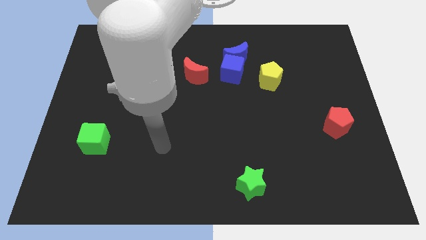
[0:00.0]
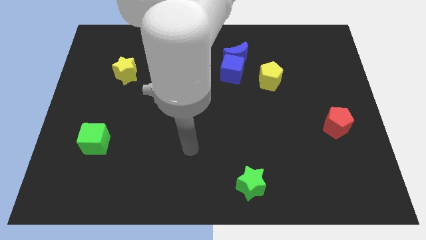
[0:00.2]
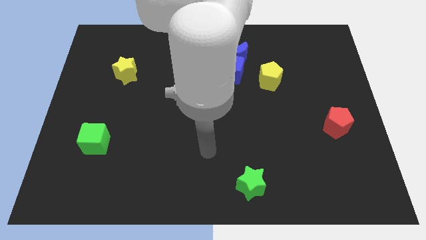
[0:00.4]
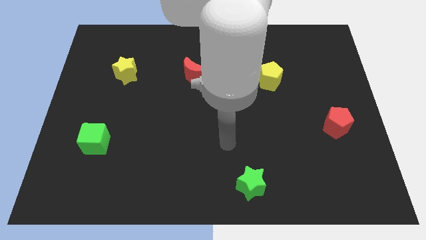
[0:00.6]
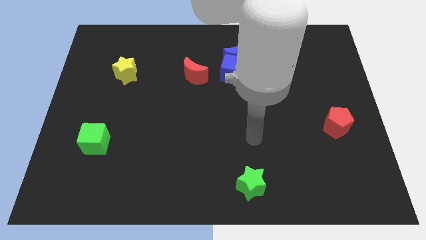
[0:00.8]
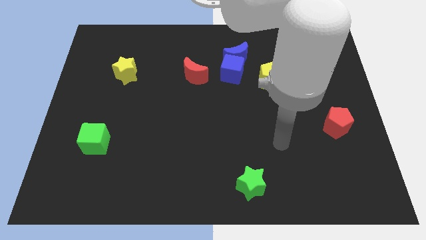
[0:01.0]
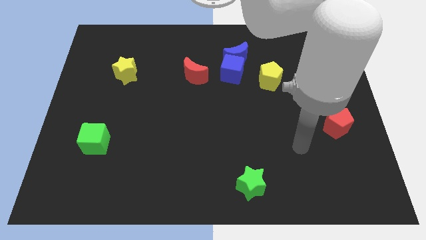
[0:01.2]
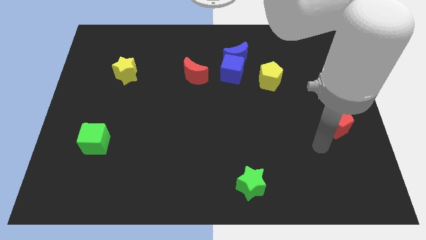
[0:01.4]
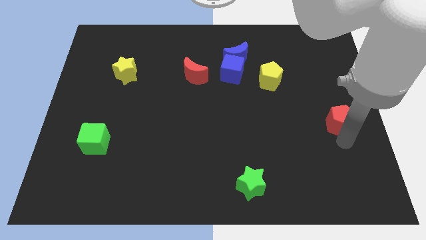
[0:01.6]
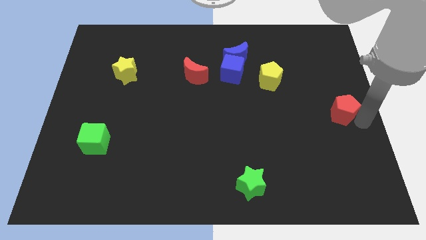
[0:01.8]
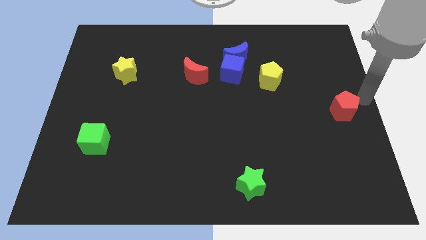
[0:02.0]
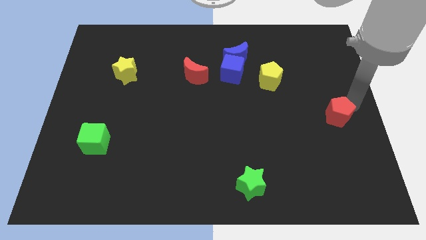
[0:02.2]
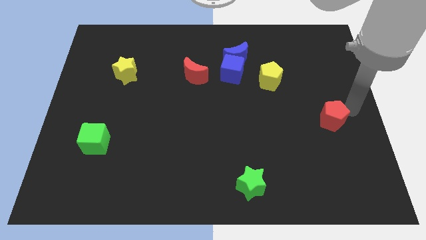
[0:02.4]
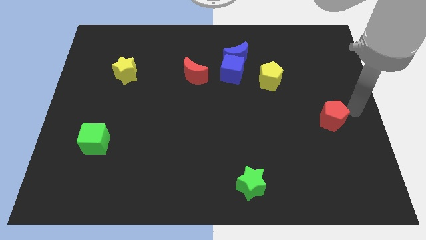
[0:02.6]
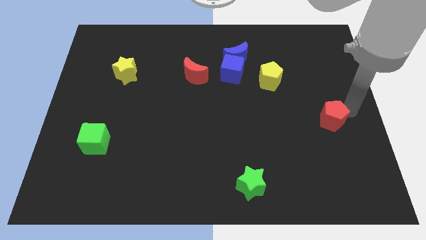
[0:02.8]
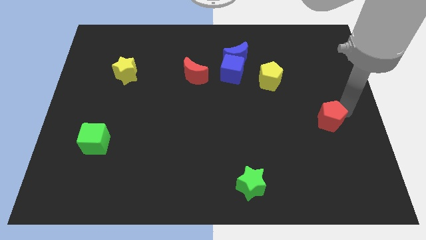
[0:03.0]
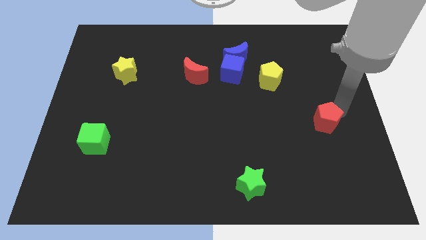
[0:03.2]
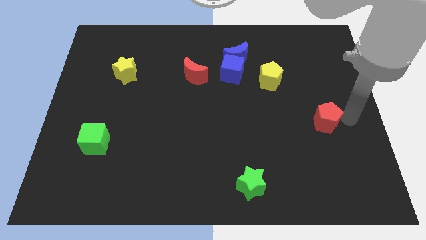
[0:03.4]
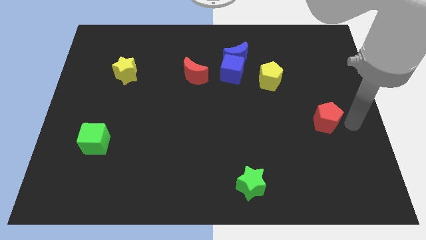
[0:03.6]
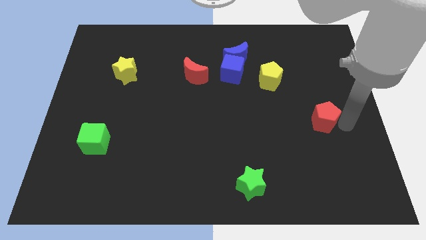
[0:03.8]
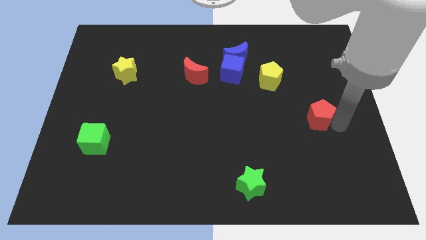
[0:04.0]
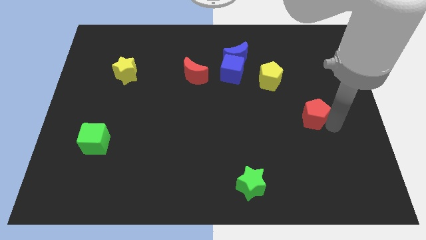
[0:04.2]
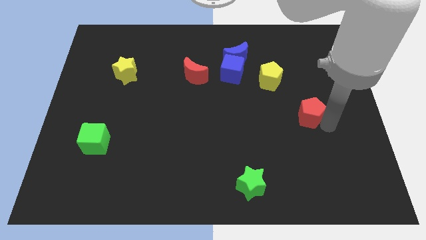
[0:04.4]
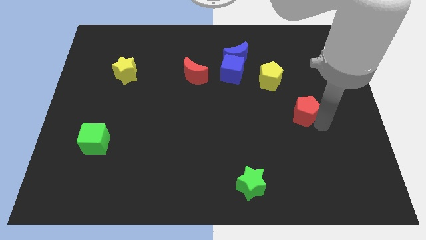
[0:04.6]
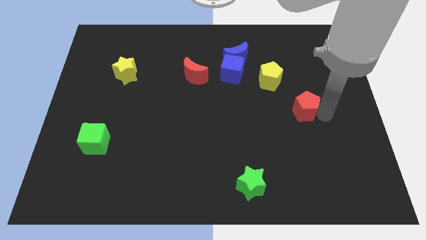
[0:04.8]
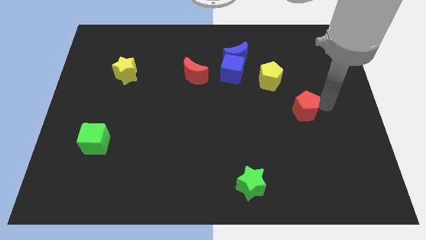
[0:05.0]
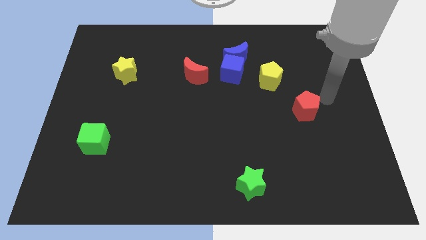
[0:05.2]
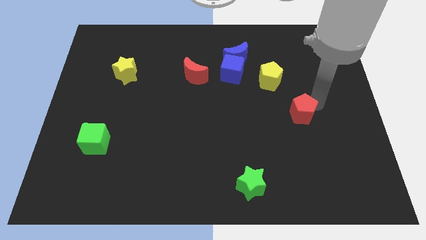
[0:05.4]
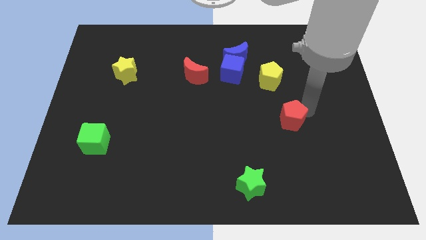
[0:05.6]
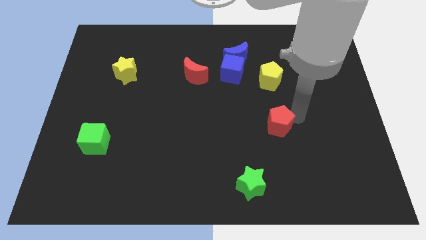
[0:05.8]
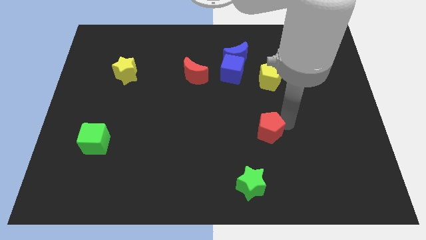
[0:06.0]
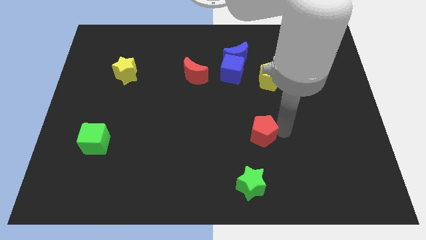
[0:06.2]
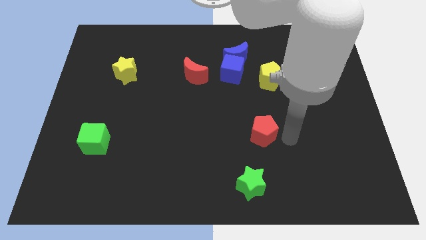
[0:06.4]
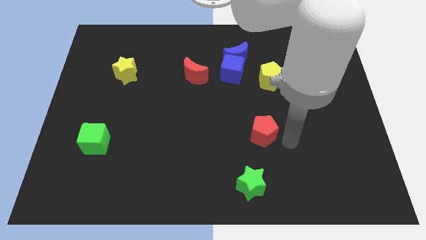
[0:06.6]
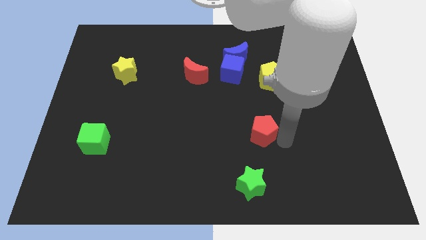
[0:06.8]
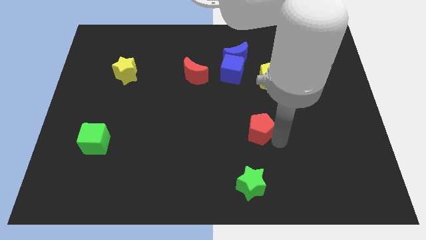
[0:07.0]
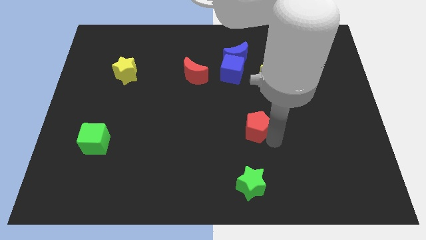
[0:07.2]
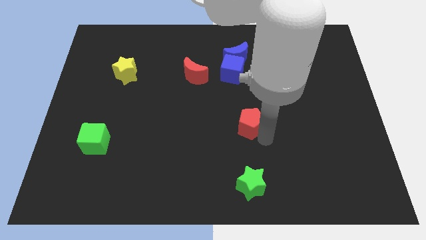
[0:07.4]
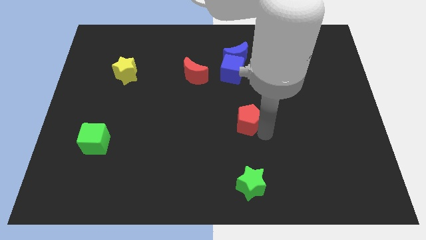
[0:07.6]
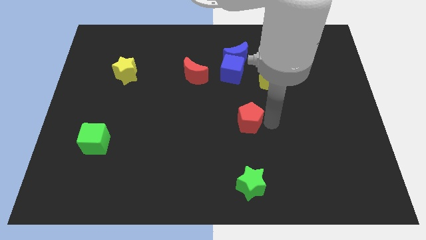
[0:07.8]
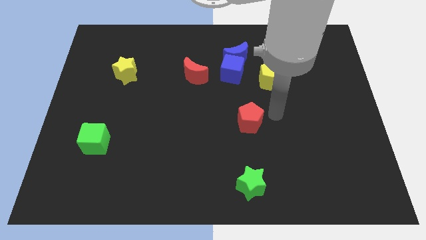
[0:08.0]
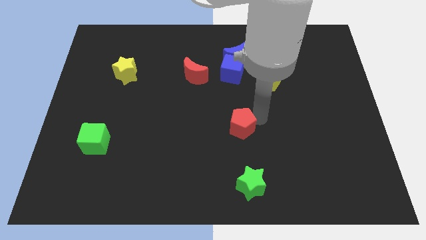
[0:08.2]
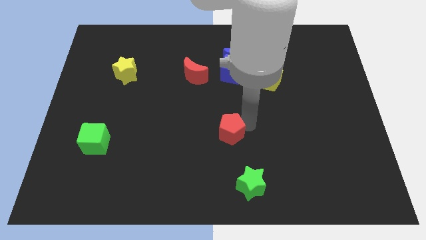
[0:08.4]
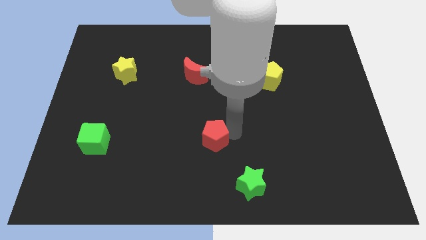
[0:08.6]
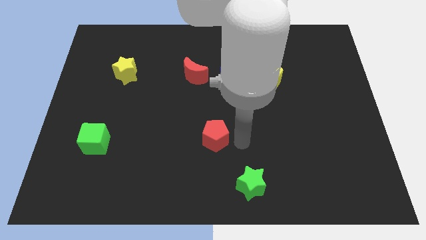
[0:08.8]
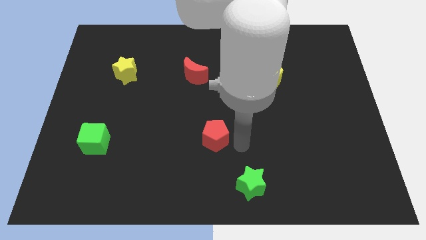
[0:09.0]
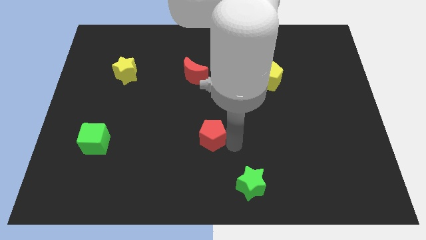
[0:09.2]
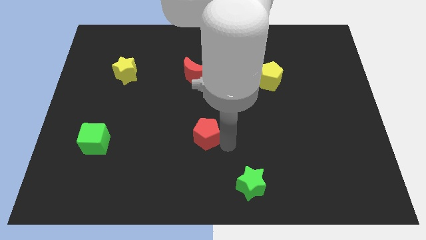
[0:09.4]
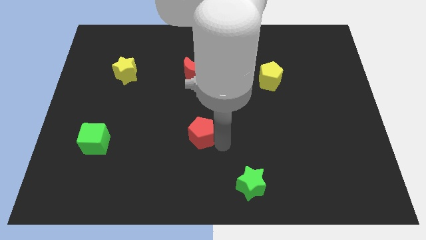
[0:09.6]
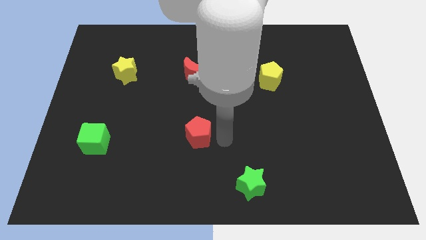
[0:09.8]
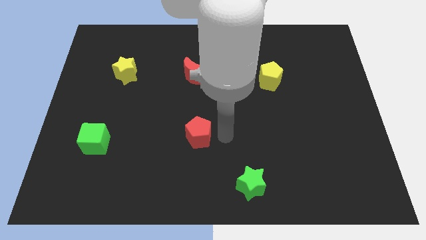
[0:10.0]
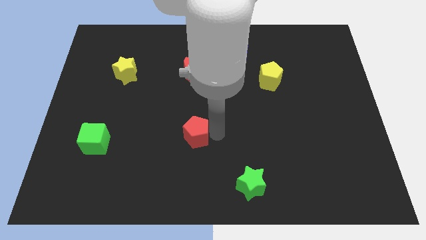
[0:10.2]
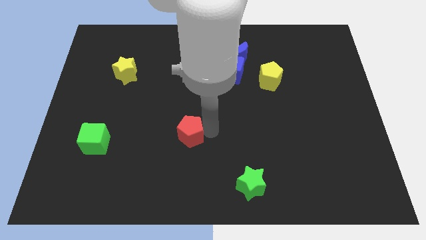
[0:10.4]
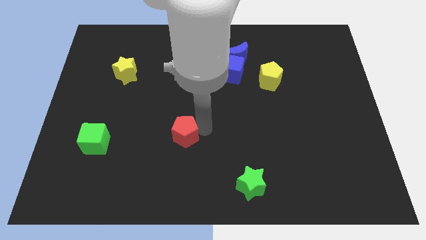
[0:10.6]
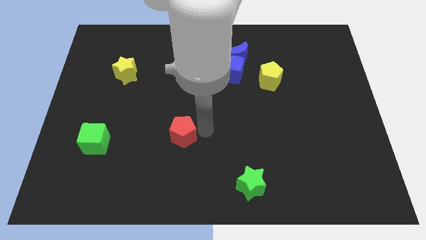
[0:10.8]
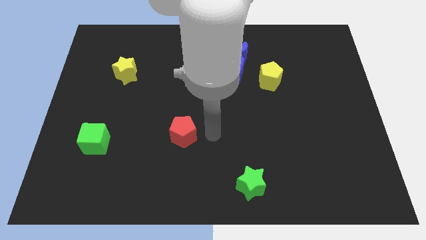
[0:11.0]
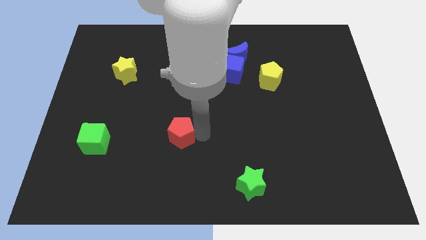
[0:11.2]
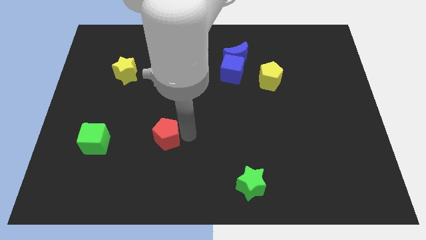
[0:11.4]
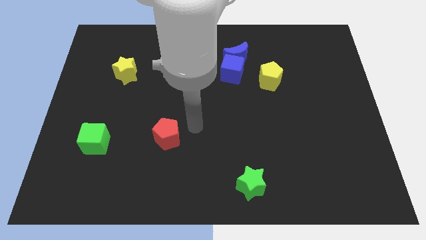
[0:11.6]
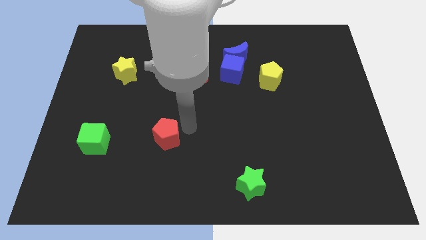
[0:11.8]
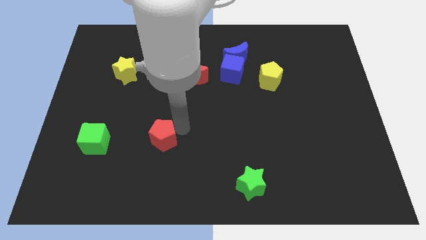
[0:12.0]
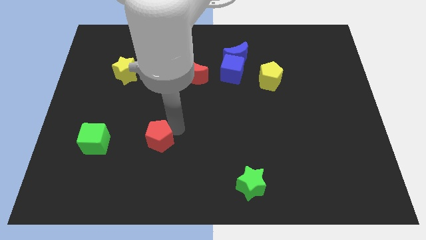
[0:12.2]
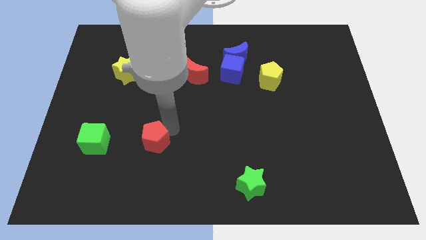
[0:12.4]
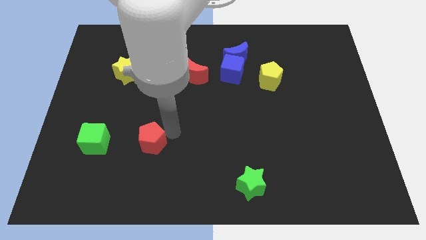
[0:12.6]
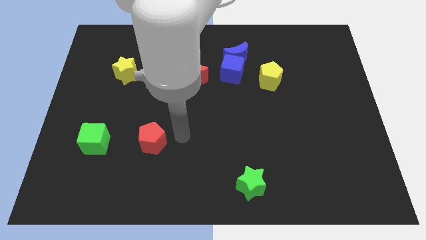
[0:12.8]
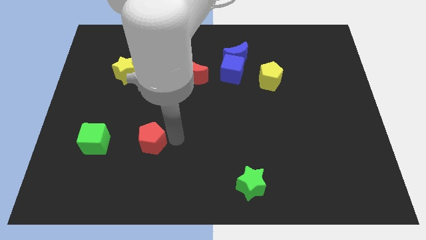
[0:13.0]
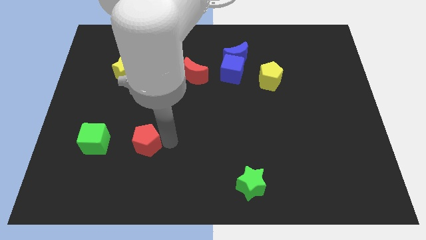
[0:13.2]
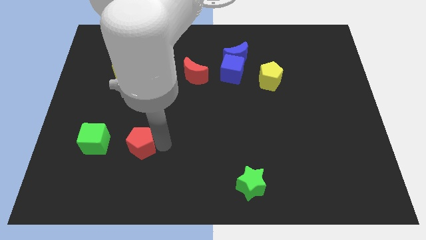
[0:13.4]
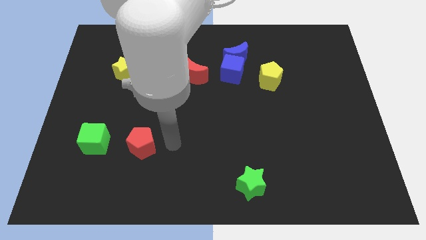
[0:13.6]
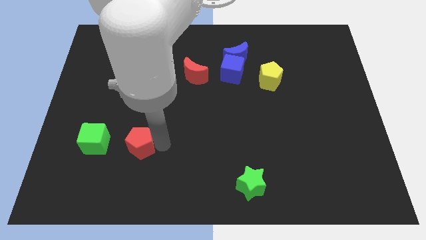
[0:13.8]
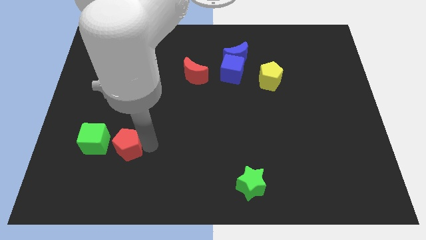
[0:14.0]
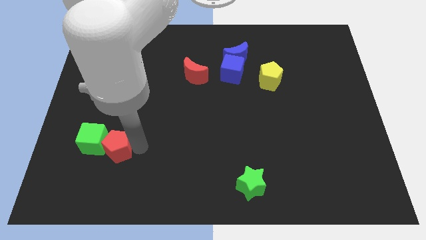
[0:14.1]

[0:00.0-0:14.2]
push the red pentagon close to the green cube

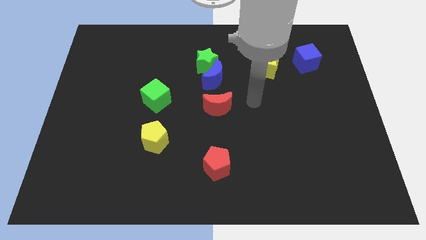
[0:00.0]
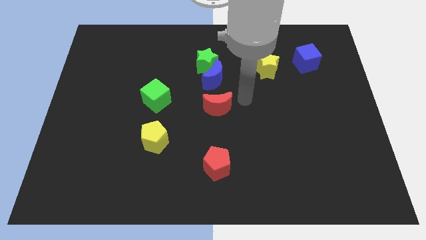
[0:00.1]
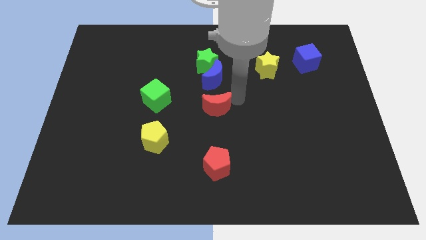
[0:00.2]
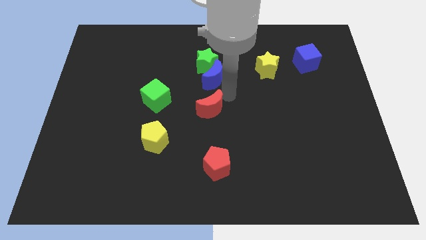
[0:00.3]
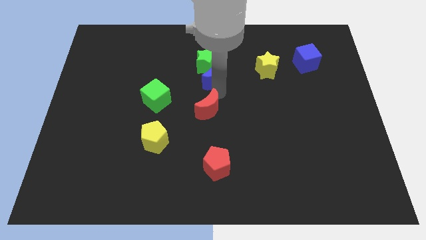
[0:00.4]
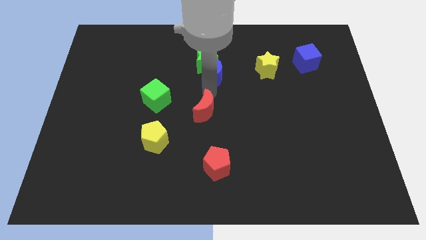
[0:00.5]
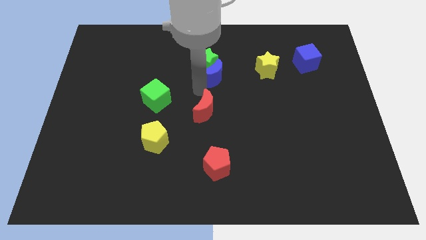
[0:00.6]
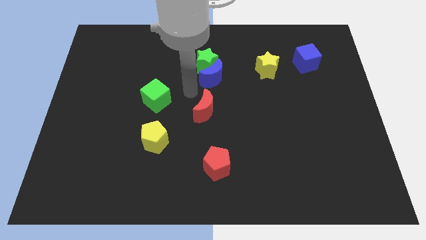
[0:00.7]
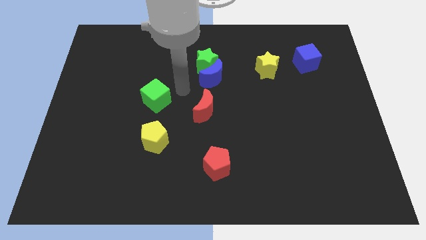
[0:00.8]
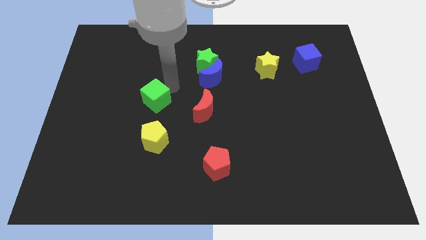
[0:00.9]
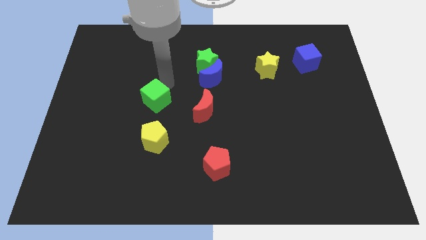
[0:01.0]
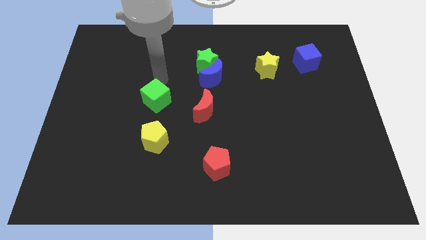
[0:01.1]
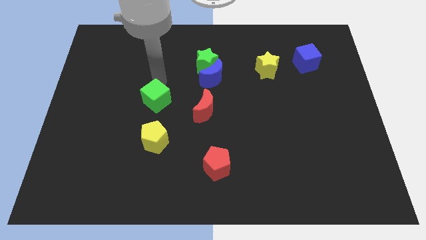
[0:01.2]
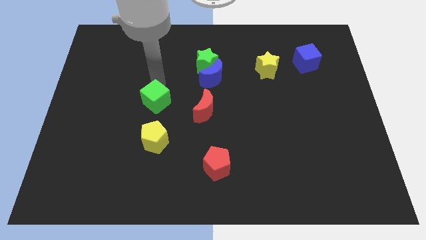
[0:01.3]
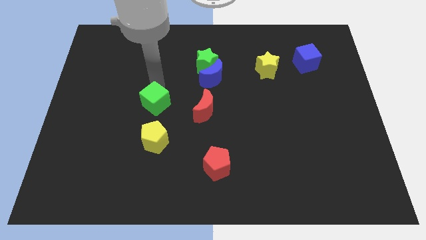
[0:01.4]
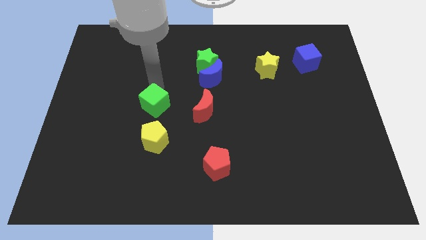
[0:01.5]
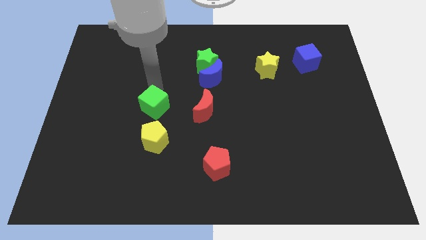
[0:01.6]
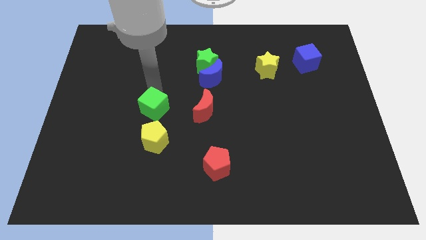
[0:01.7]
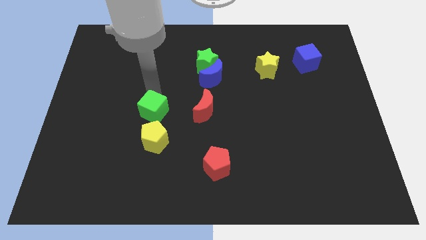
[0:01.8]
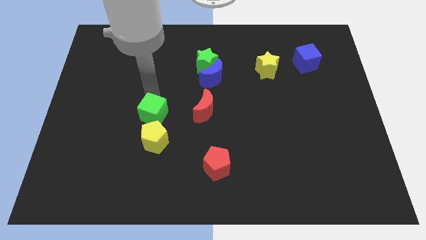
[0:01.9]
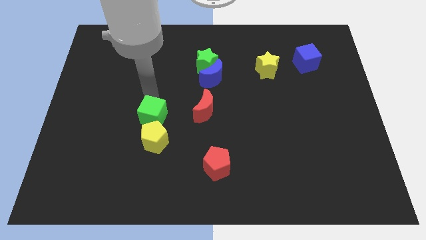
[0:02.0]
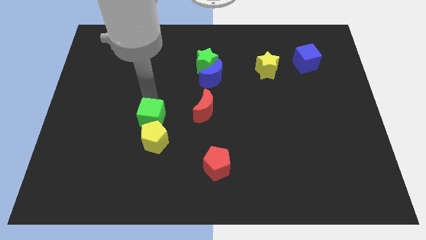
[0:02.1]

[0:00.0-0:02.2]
push the green cube close to the yellow pentagon
